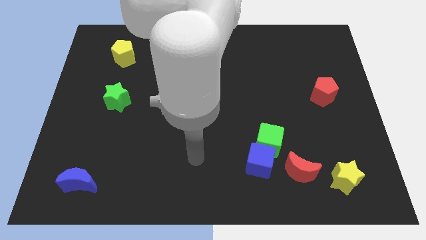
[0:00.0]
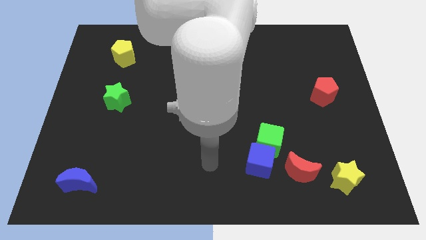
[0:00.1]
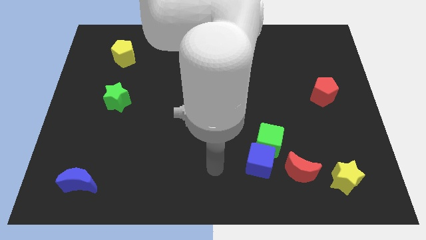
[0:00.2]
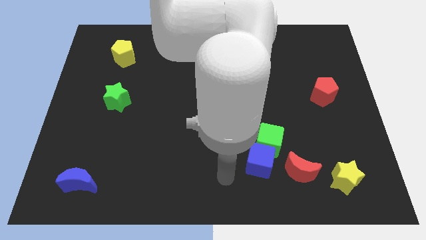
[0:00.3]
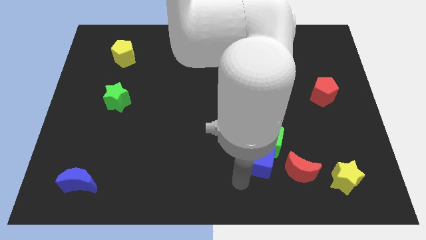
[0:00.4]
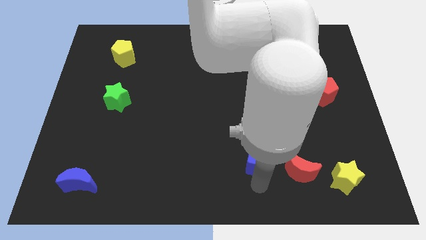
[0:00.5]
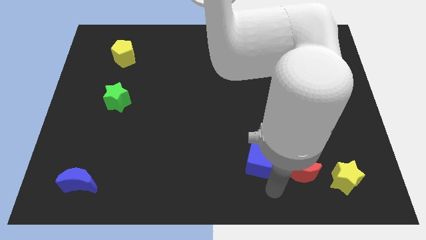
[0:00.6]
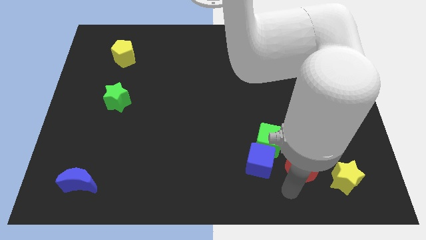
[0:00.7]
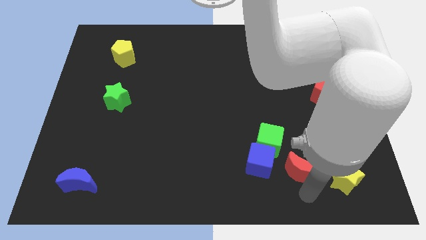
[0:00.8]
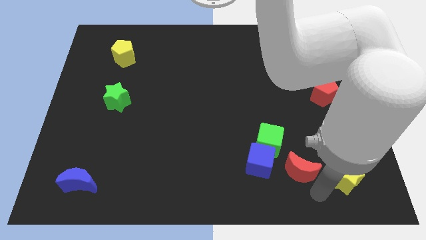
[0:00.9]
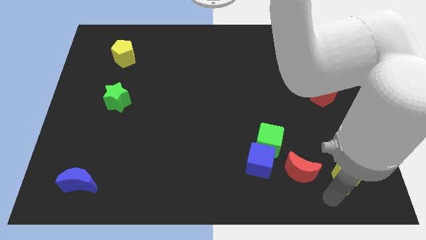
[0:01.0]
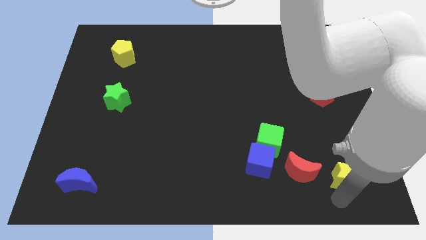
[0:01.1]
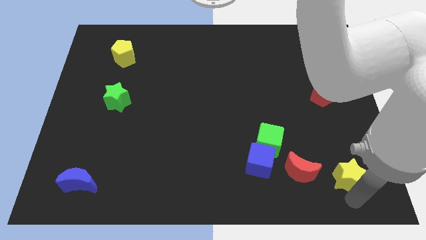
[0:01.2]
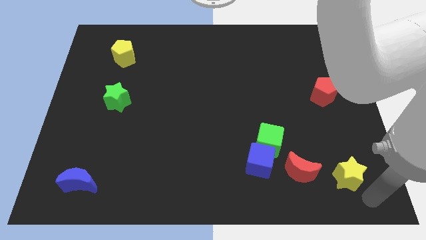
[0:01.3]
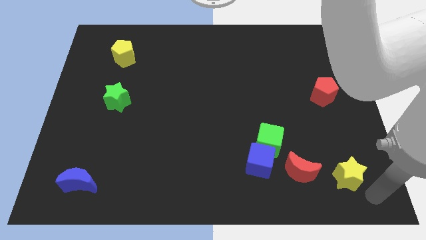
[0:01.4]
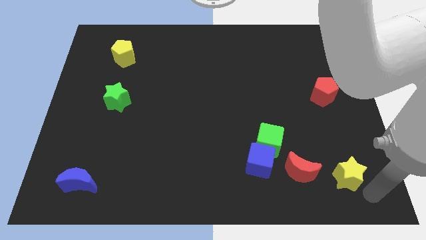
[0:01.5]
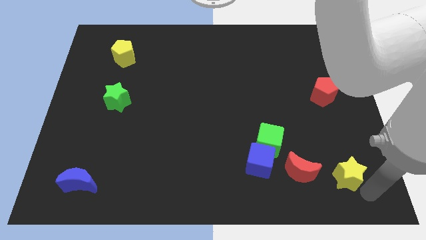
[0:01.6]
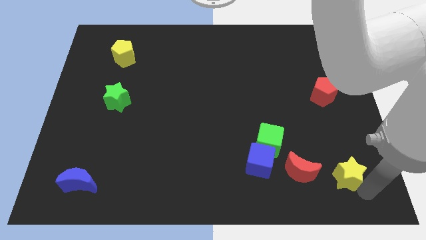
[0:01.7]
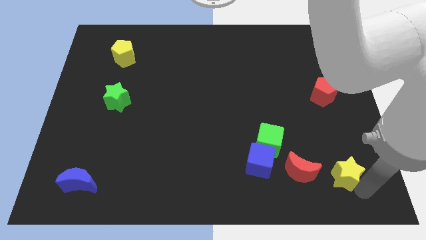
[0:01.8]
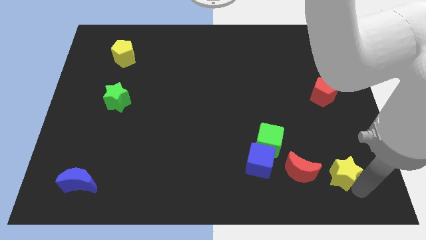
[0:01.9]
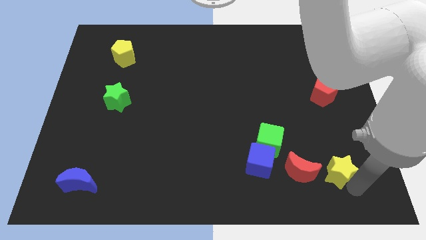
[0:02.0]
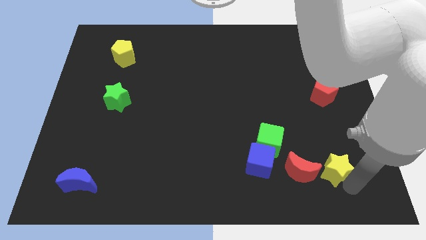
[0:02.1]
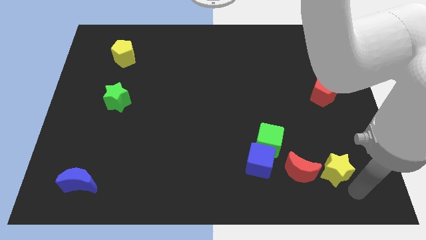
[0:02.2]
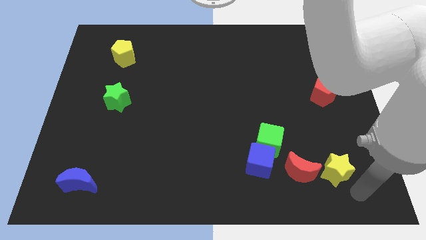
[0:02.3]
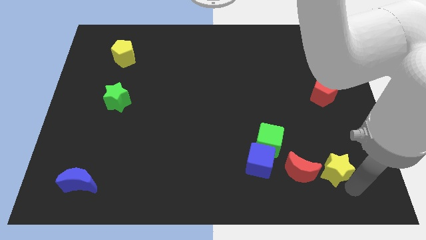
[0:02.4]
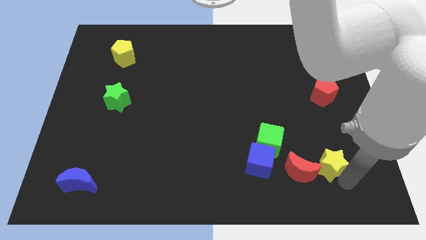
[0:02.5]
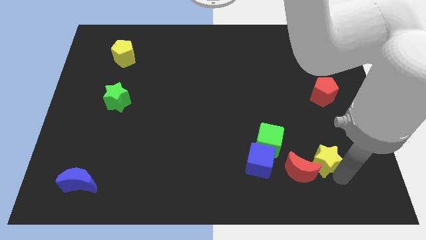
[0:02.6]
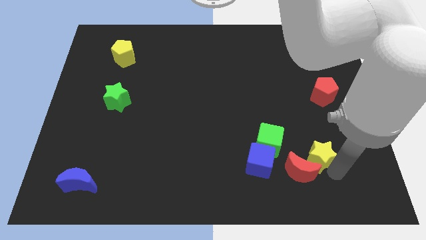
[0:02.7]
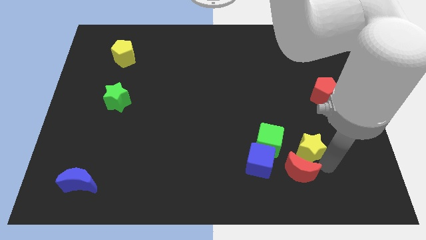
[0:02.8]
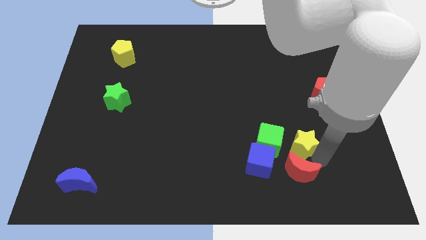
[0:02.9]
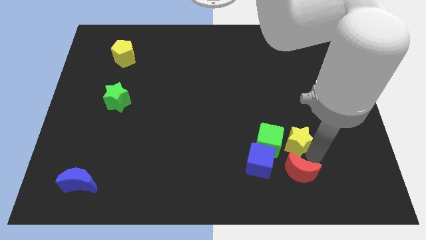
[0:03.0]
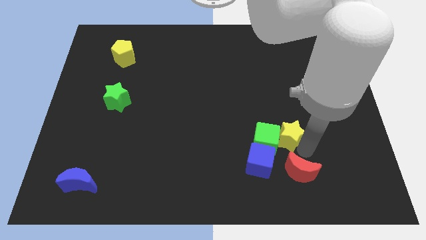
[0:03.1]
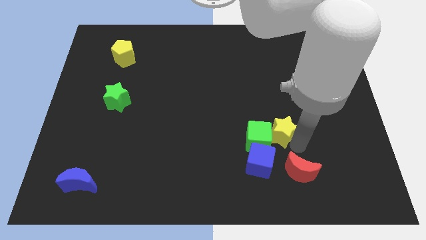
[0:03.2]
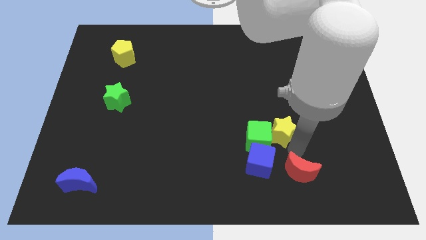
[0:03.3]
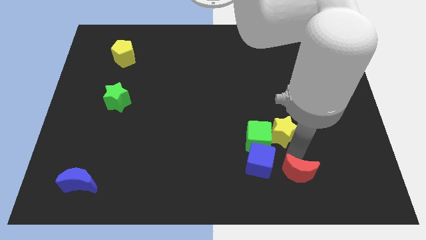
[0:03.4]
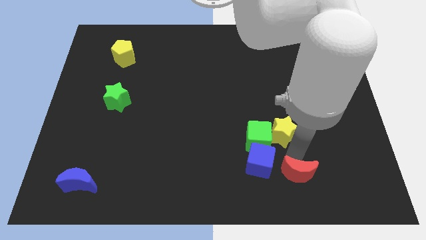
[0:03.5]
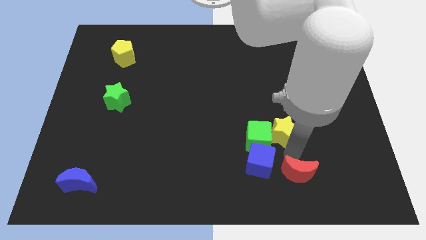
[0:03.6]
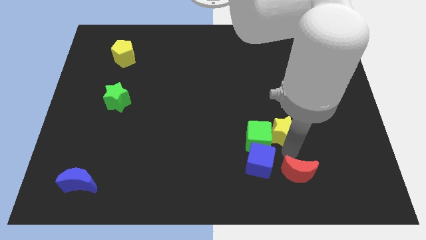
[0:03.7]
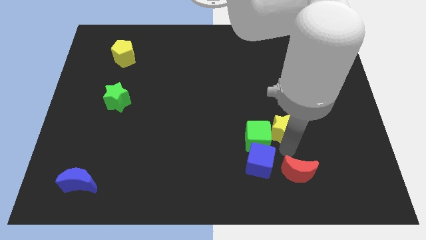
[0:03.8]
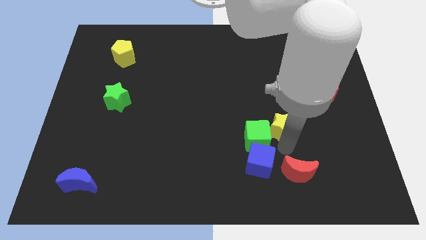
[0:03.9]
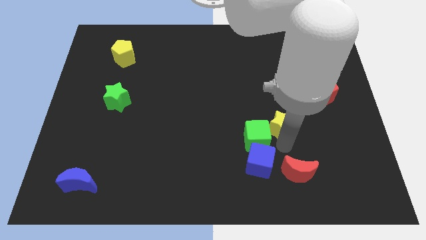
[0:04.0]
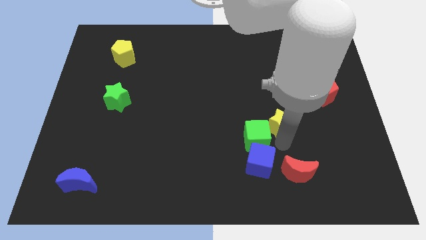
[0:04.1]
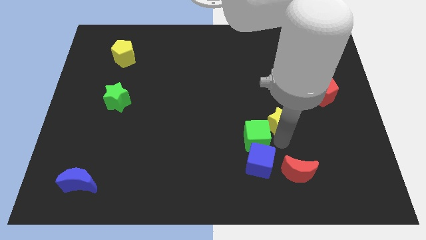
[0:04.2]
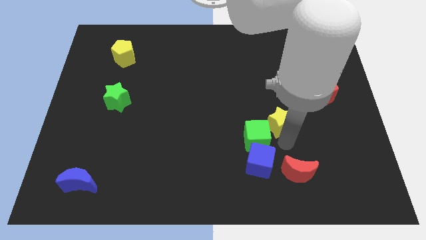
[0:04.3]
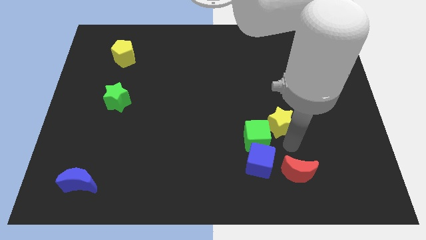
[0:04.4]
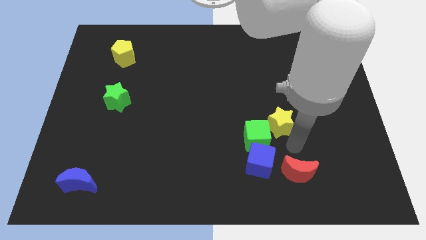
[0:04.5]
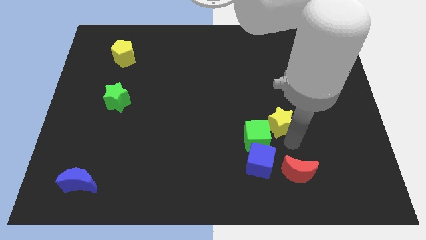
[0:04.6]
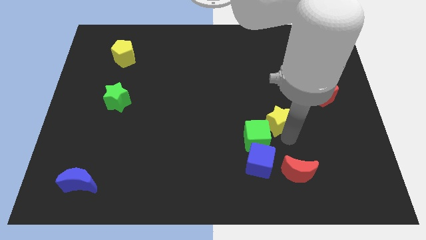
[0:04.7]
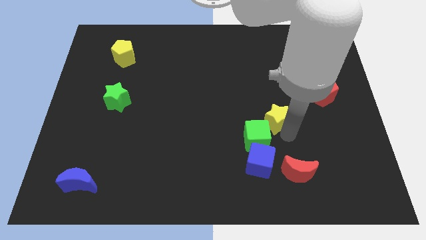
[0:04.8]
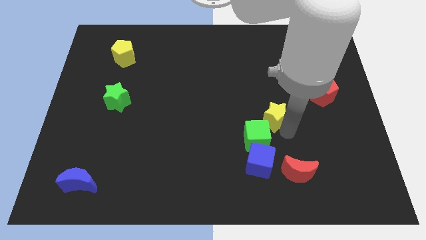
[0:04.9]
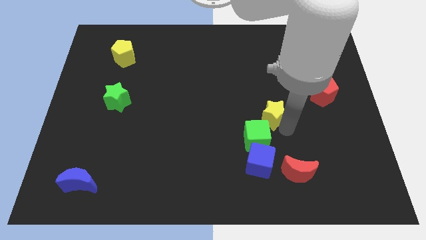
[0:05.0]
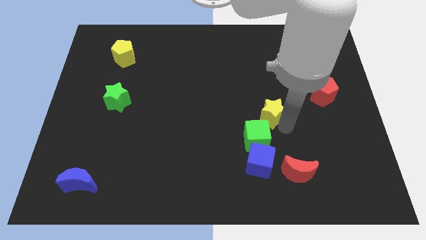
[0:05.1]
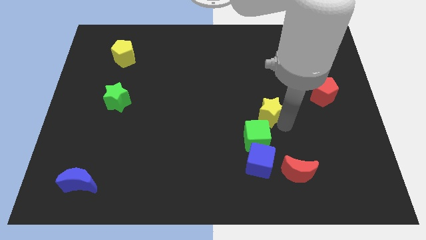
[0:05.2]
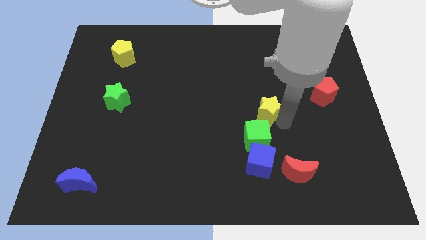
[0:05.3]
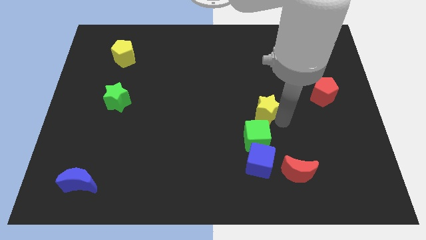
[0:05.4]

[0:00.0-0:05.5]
push the yellow star to the center

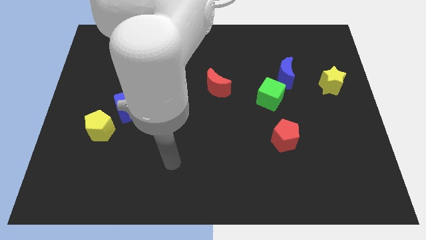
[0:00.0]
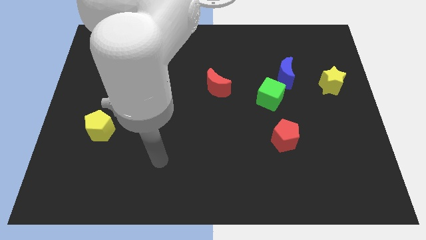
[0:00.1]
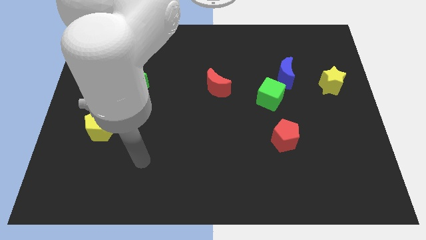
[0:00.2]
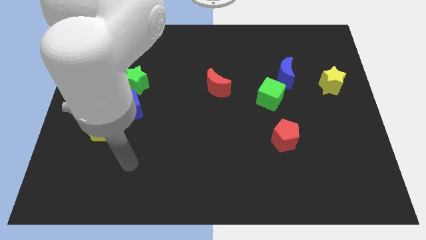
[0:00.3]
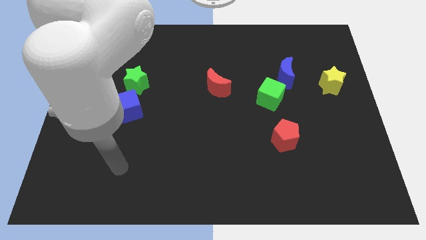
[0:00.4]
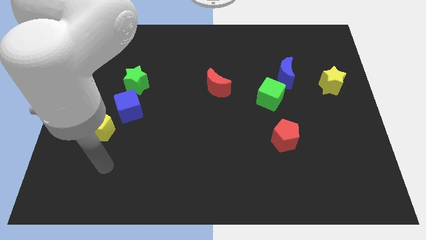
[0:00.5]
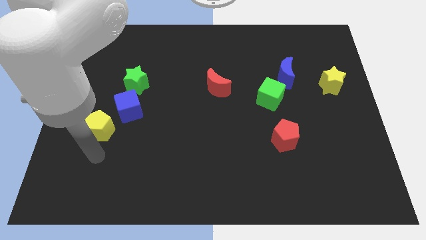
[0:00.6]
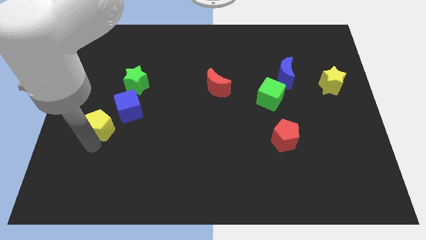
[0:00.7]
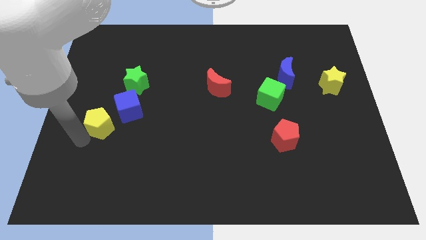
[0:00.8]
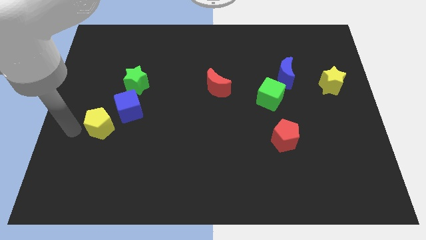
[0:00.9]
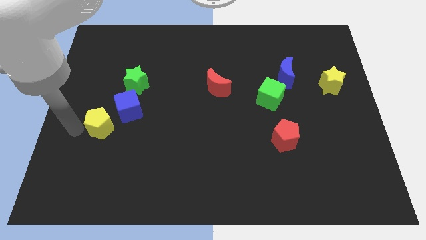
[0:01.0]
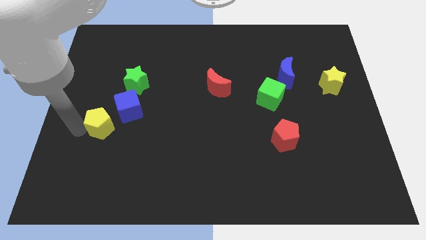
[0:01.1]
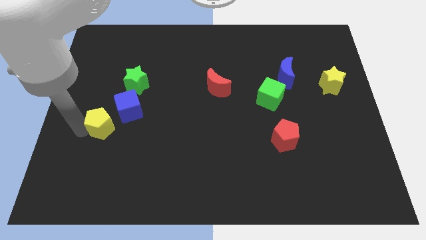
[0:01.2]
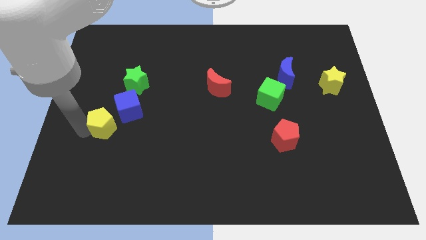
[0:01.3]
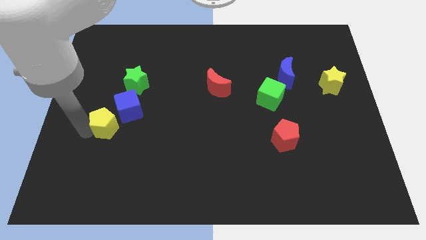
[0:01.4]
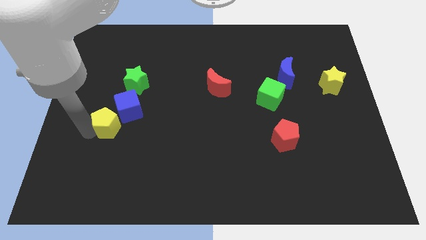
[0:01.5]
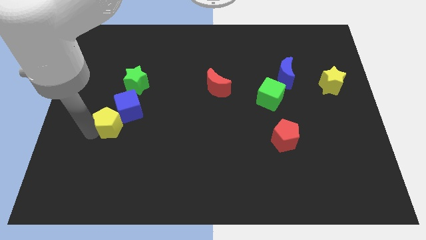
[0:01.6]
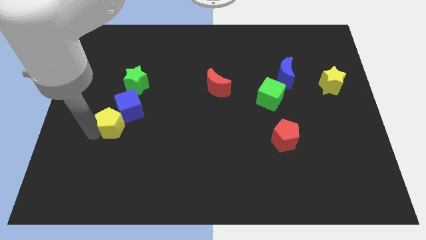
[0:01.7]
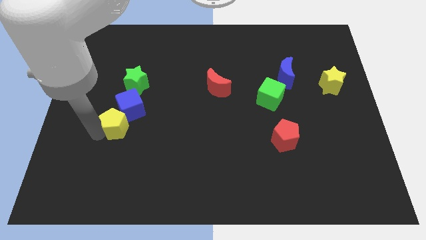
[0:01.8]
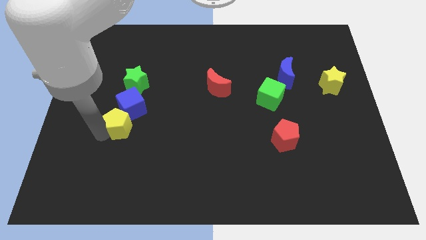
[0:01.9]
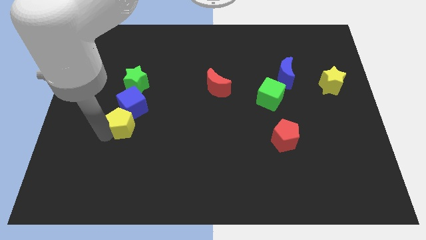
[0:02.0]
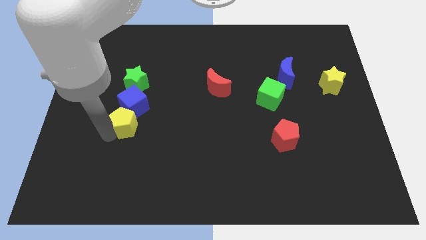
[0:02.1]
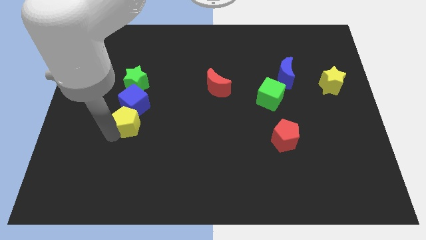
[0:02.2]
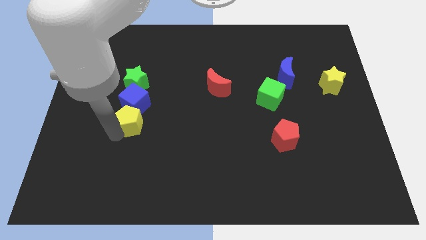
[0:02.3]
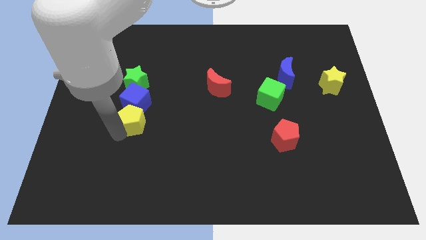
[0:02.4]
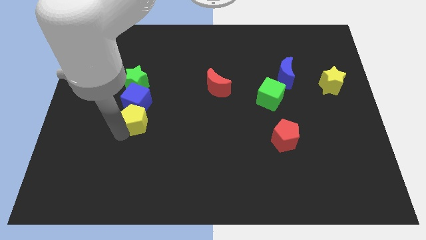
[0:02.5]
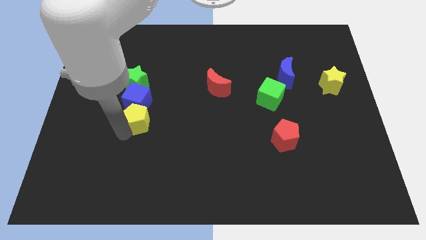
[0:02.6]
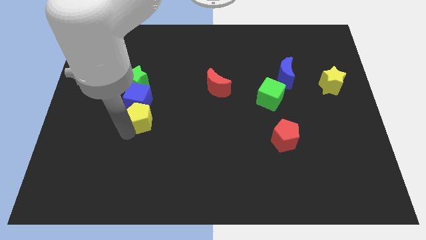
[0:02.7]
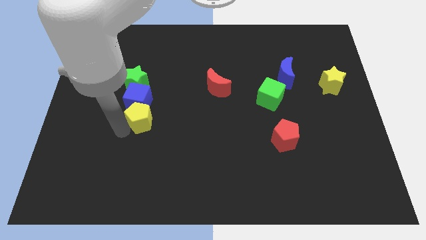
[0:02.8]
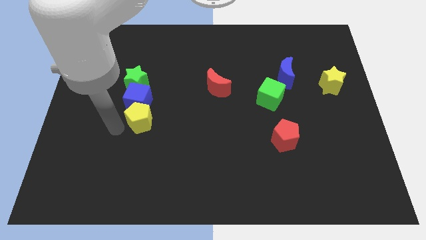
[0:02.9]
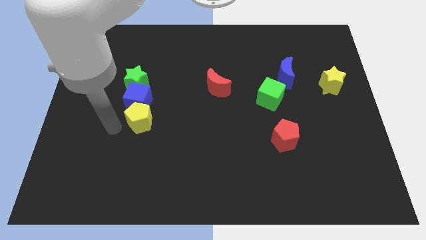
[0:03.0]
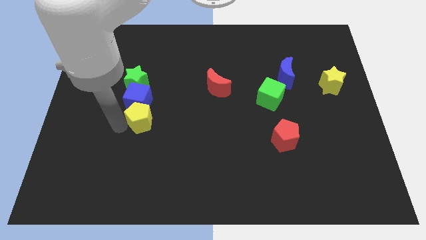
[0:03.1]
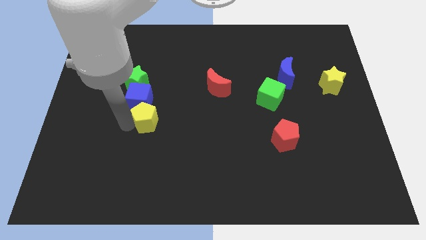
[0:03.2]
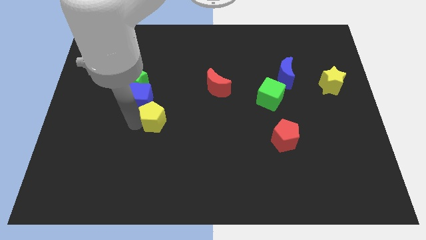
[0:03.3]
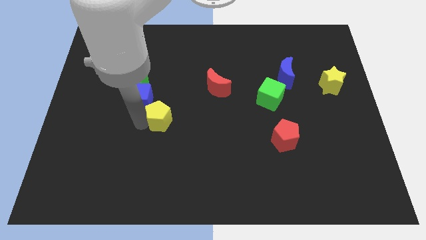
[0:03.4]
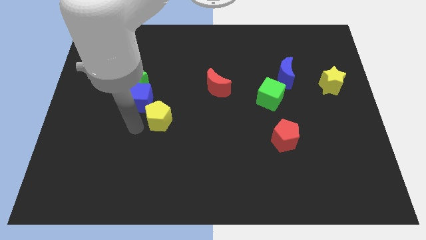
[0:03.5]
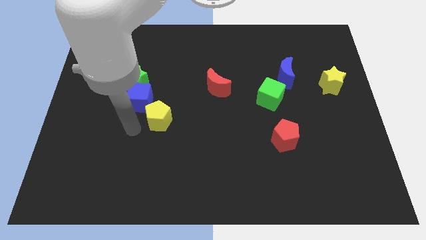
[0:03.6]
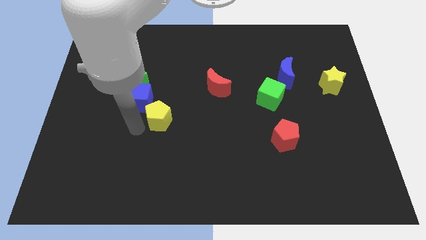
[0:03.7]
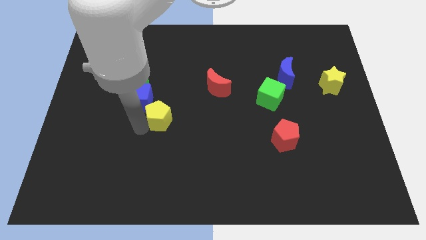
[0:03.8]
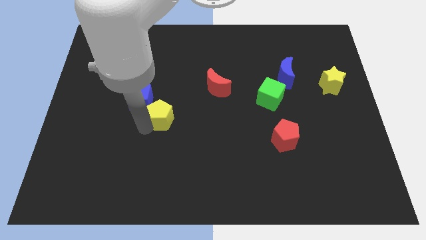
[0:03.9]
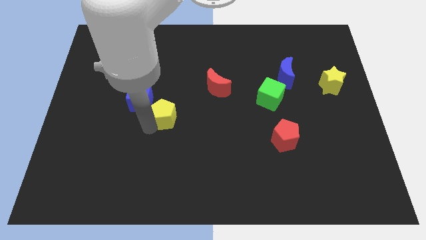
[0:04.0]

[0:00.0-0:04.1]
put the yellow pentagon to the middle
